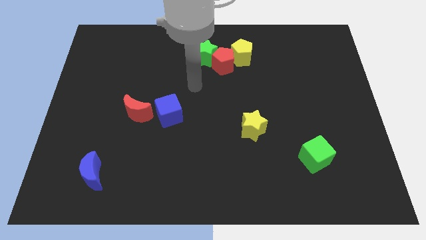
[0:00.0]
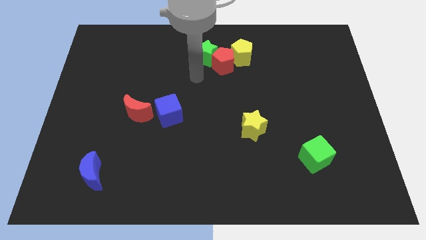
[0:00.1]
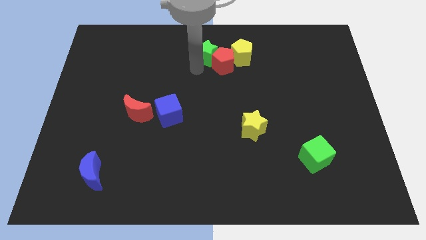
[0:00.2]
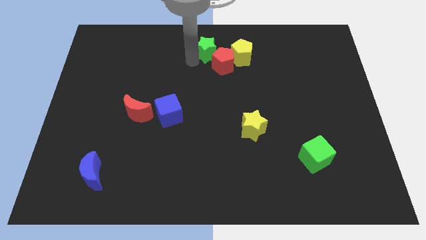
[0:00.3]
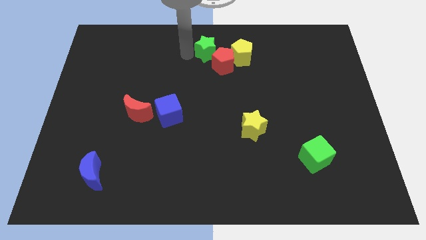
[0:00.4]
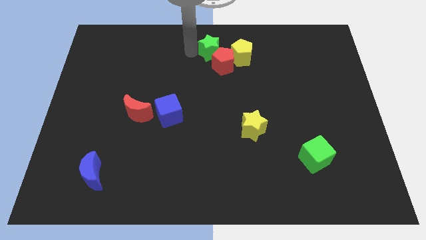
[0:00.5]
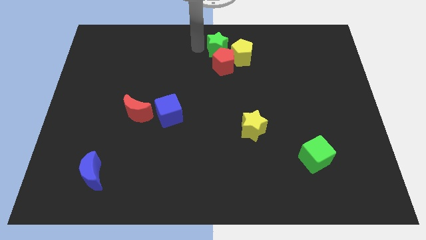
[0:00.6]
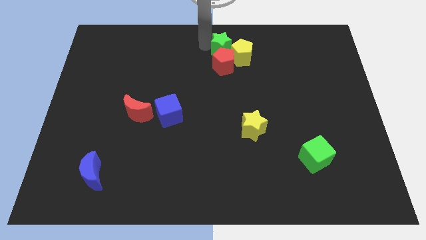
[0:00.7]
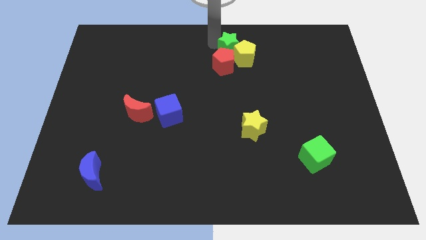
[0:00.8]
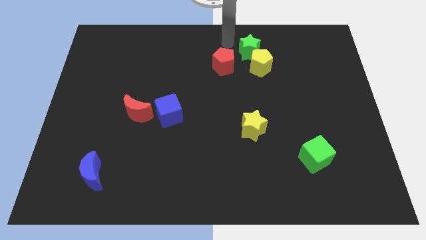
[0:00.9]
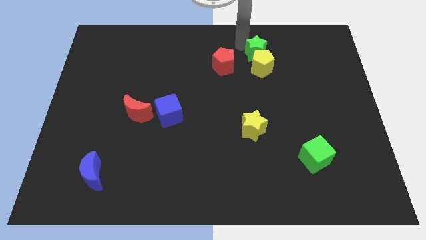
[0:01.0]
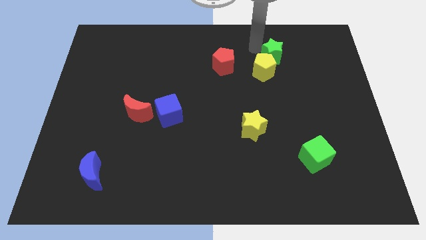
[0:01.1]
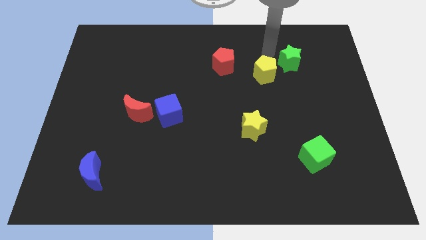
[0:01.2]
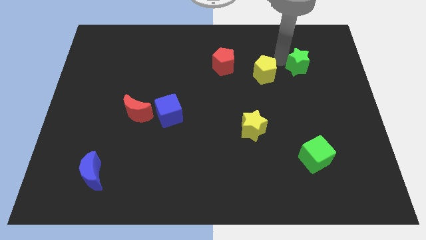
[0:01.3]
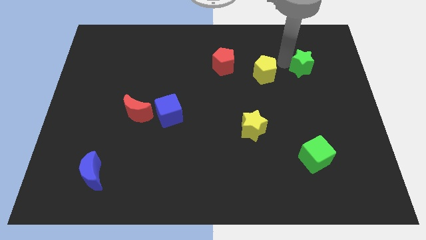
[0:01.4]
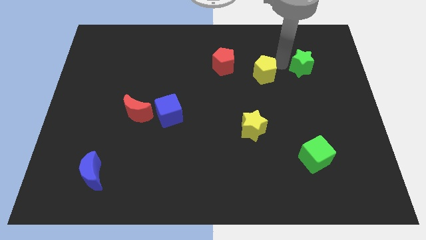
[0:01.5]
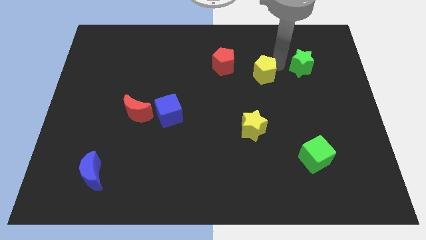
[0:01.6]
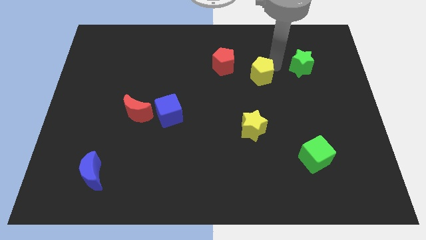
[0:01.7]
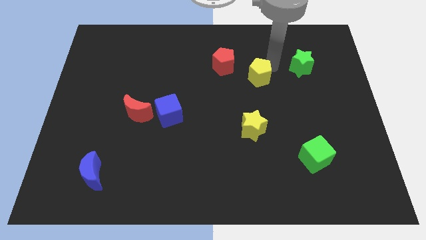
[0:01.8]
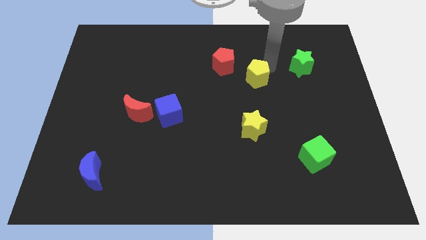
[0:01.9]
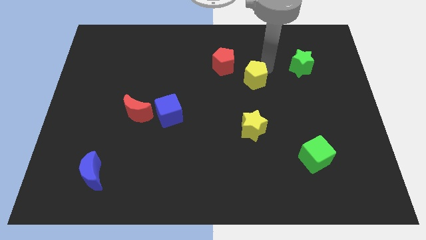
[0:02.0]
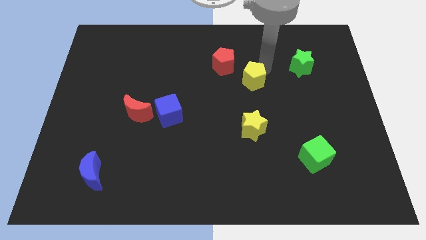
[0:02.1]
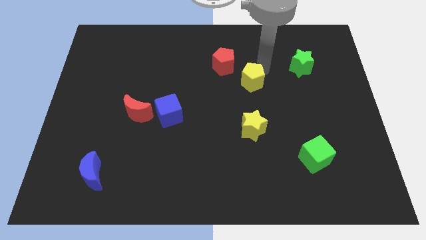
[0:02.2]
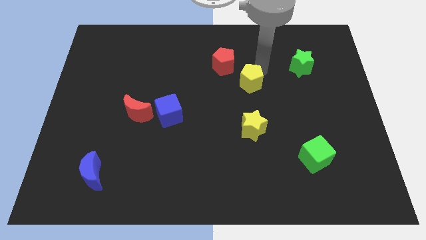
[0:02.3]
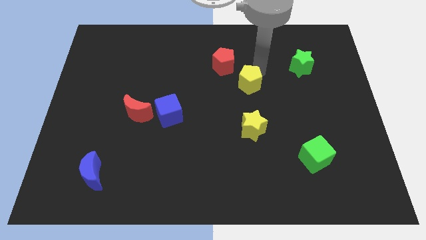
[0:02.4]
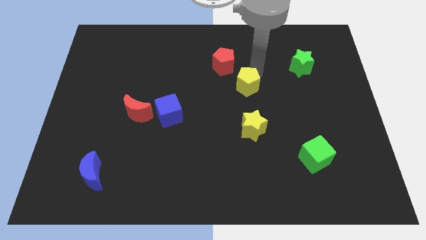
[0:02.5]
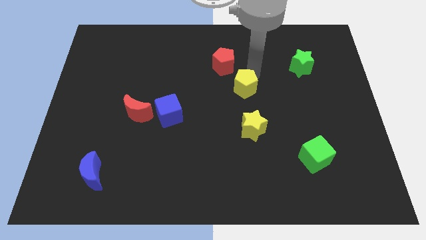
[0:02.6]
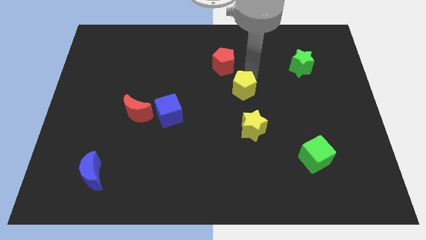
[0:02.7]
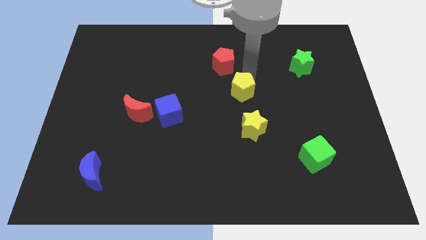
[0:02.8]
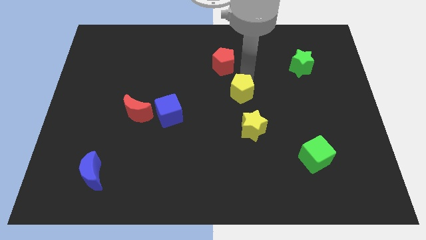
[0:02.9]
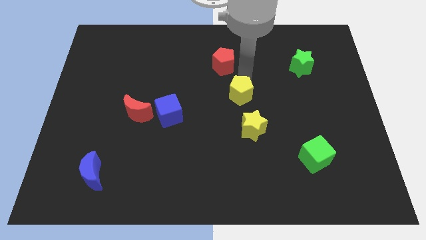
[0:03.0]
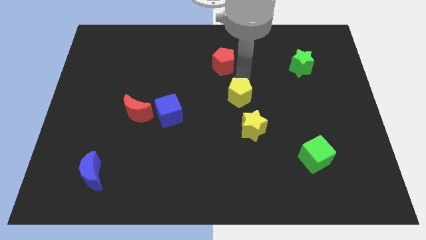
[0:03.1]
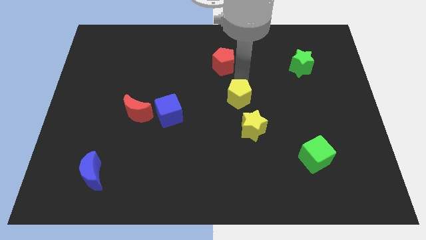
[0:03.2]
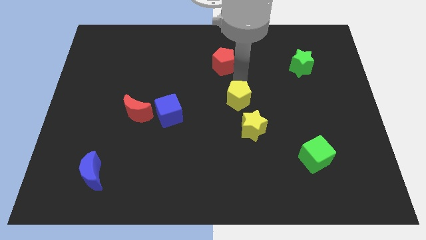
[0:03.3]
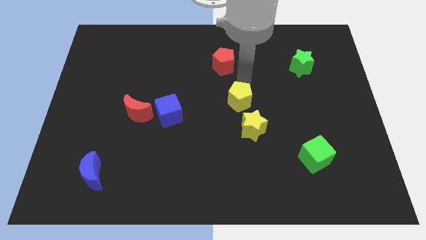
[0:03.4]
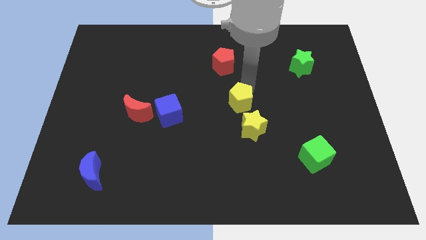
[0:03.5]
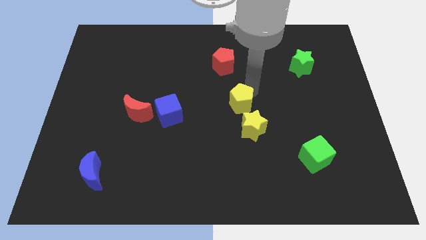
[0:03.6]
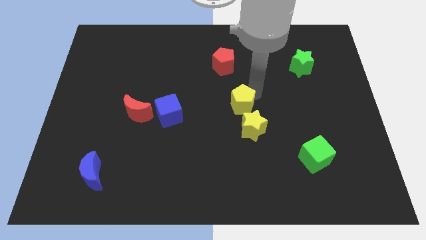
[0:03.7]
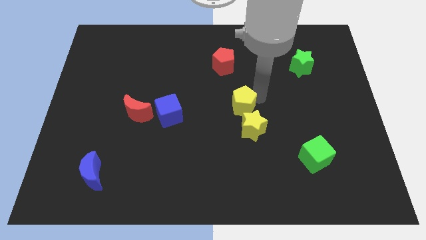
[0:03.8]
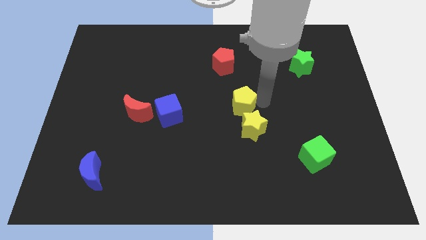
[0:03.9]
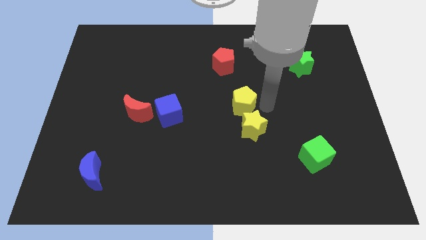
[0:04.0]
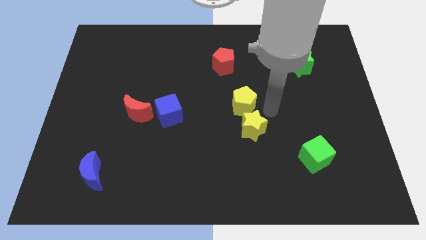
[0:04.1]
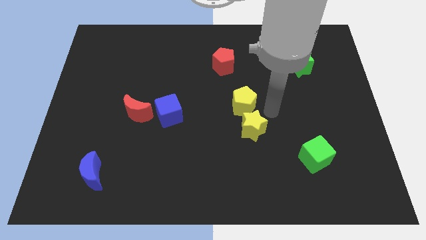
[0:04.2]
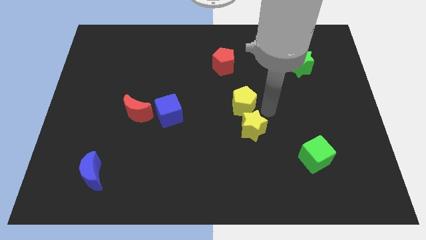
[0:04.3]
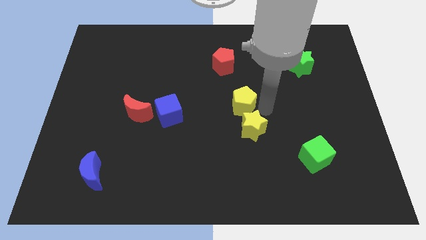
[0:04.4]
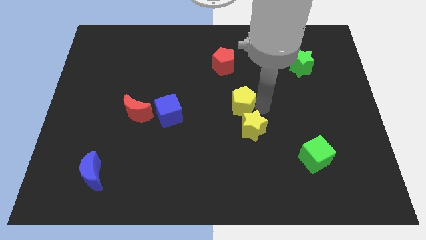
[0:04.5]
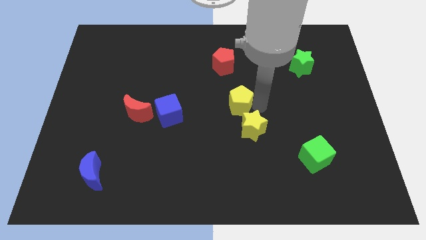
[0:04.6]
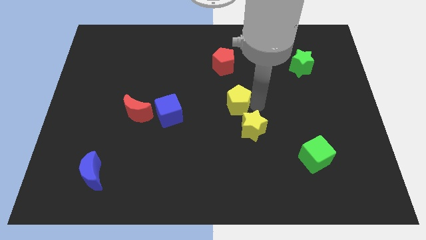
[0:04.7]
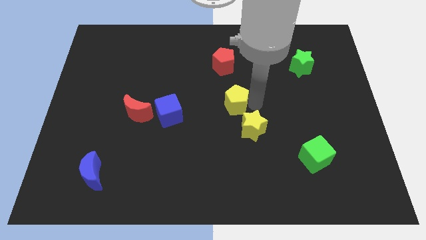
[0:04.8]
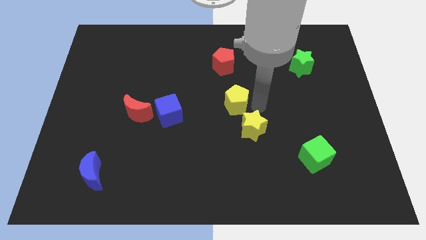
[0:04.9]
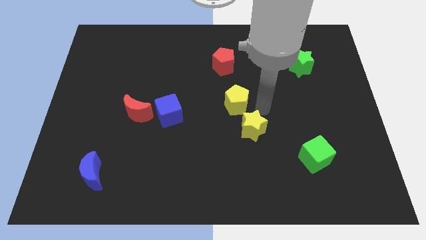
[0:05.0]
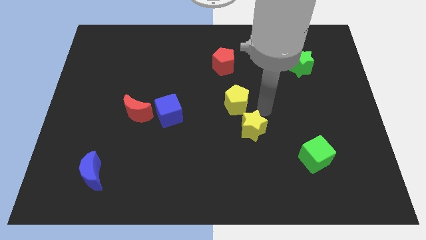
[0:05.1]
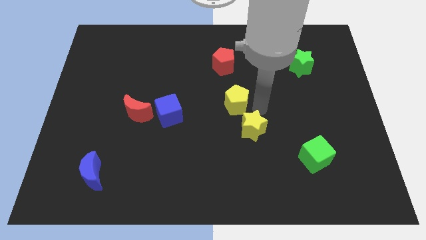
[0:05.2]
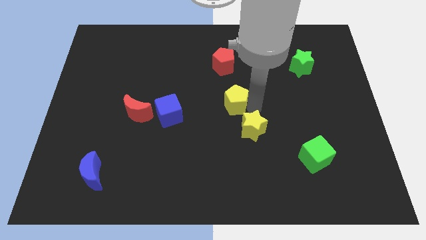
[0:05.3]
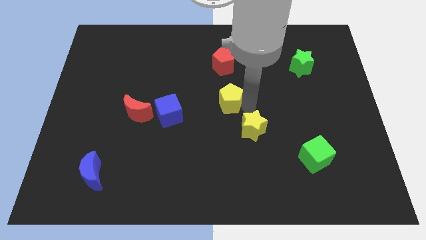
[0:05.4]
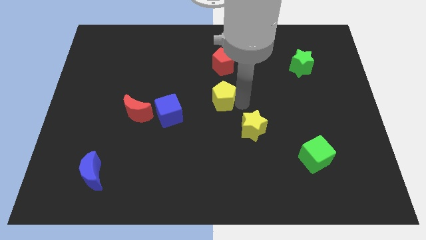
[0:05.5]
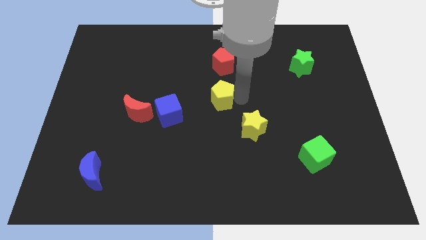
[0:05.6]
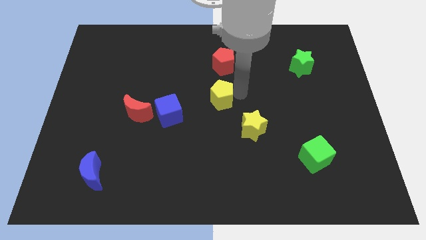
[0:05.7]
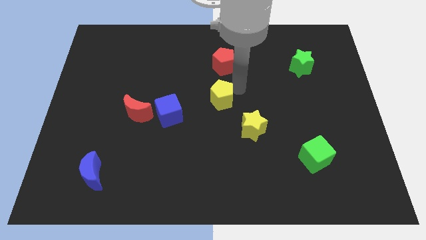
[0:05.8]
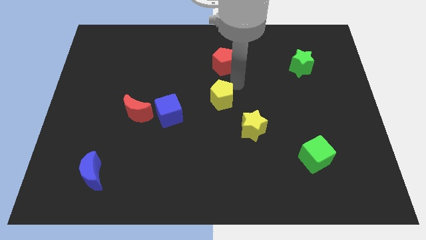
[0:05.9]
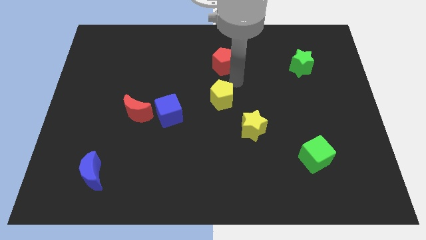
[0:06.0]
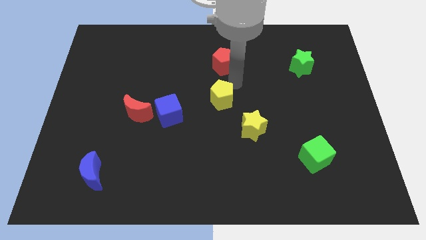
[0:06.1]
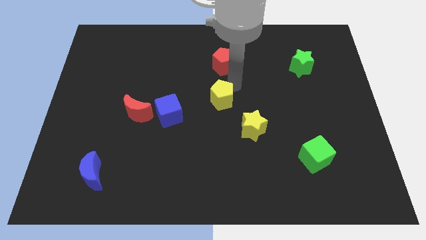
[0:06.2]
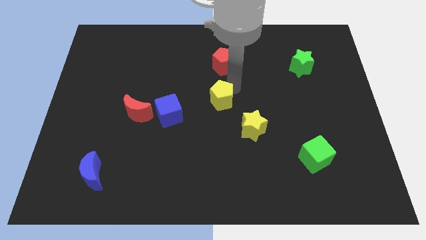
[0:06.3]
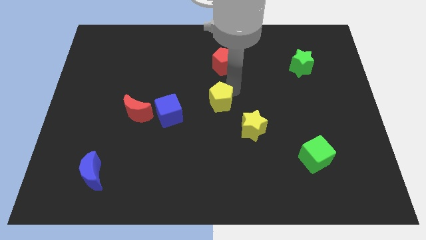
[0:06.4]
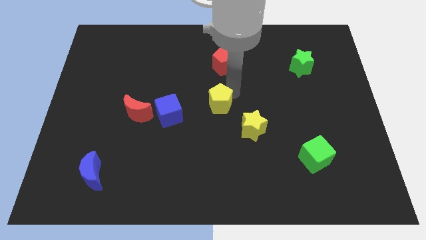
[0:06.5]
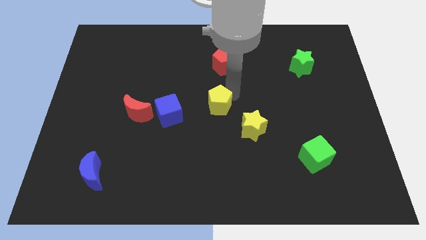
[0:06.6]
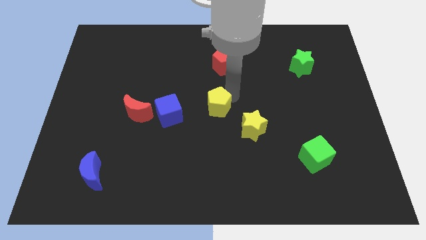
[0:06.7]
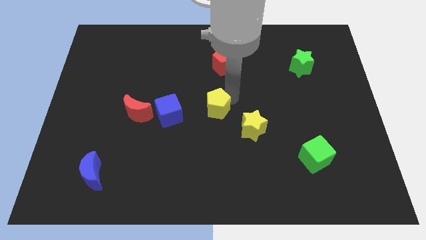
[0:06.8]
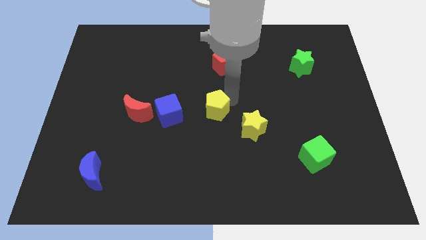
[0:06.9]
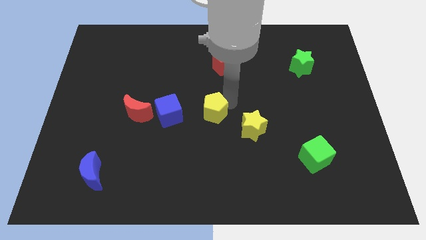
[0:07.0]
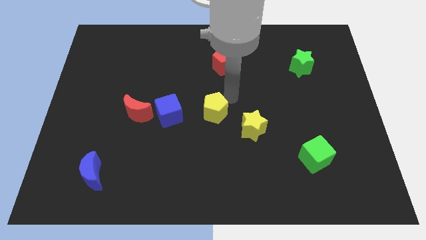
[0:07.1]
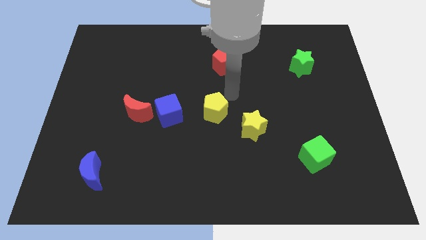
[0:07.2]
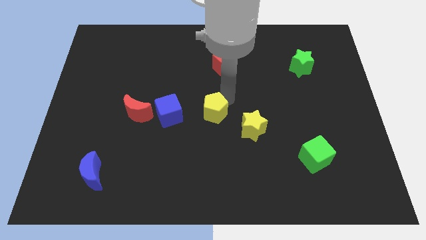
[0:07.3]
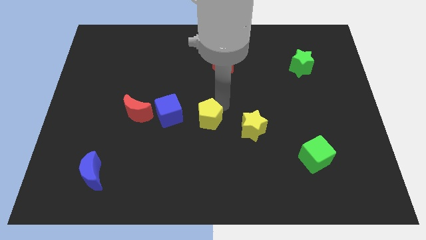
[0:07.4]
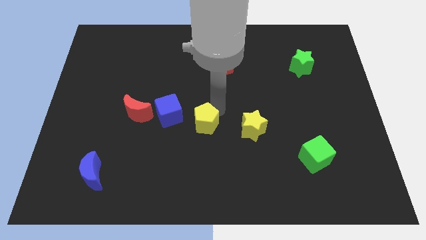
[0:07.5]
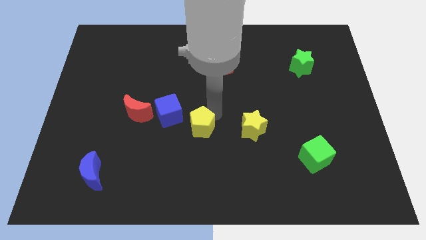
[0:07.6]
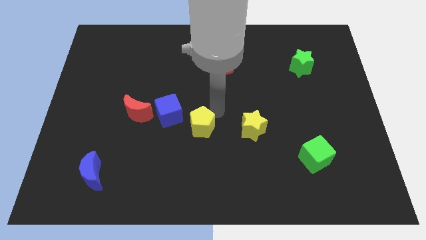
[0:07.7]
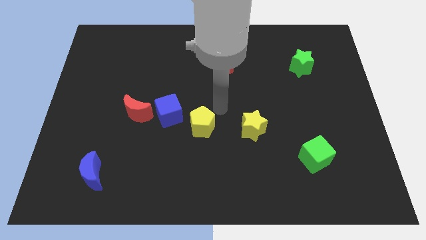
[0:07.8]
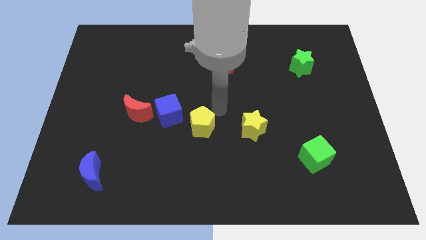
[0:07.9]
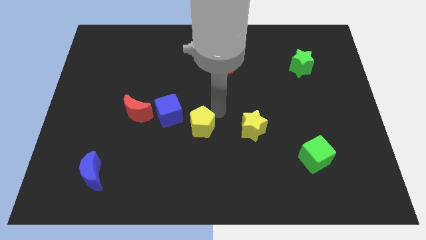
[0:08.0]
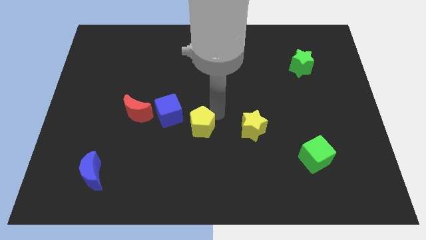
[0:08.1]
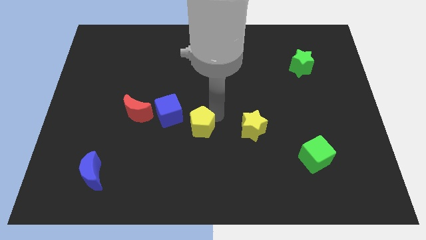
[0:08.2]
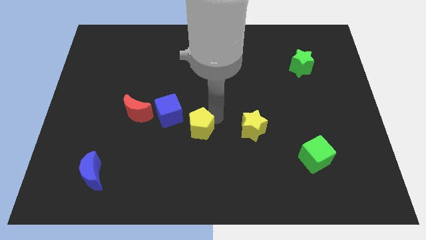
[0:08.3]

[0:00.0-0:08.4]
slide the yellow pentagon downwards and to the left
